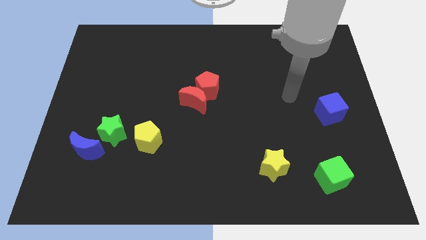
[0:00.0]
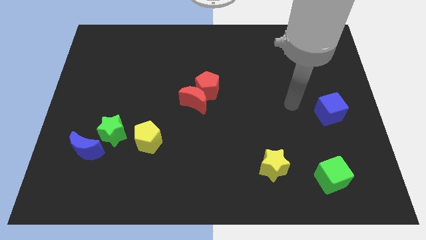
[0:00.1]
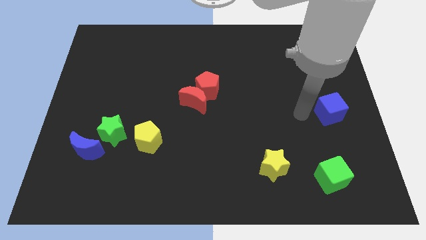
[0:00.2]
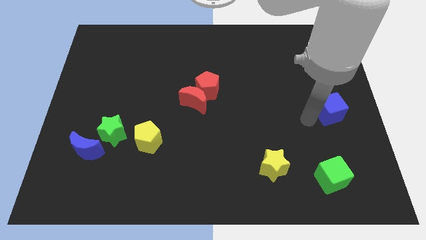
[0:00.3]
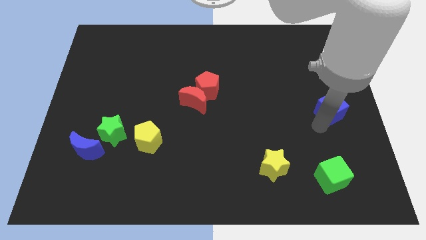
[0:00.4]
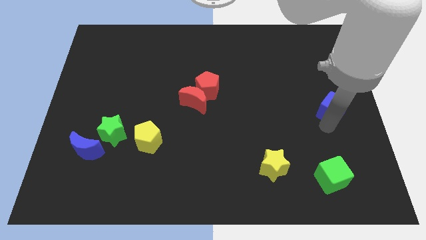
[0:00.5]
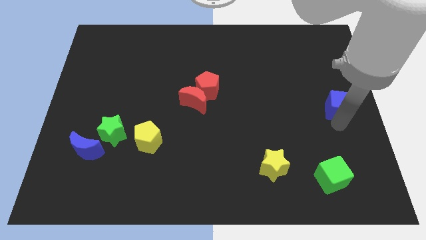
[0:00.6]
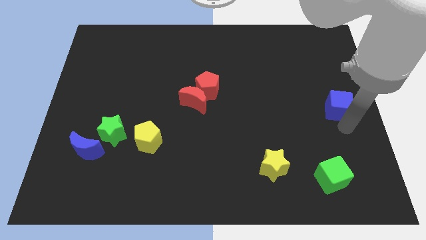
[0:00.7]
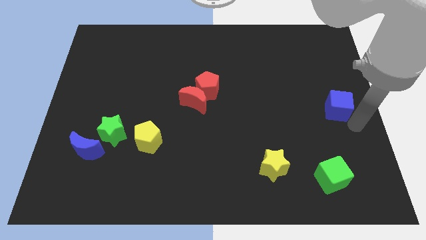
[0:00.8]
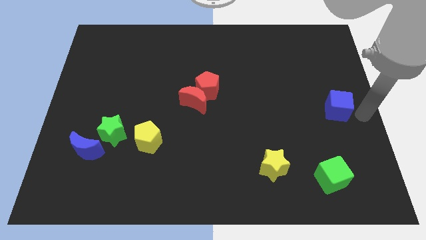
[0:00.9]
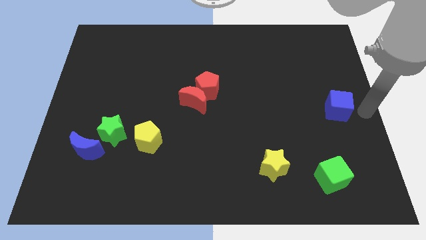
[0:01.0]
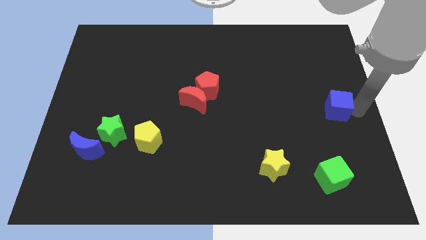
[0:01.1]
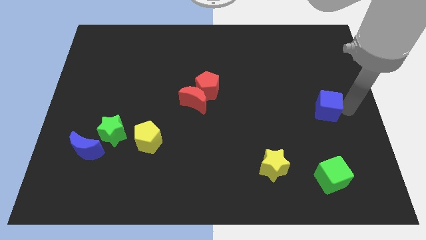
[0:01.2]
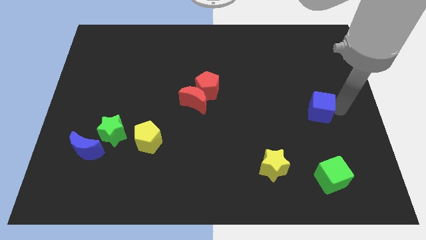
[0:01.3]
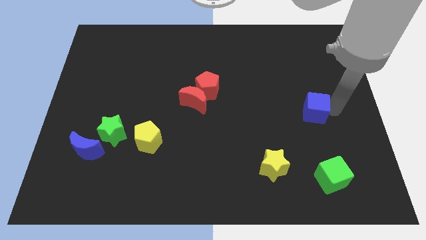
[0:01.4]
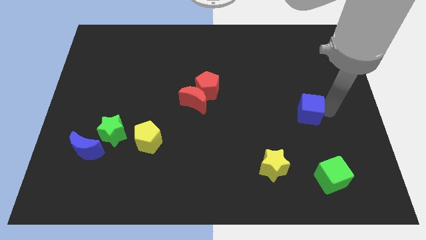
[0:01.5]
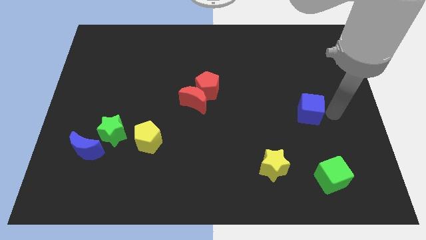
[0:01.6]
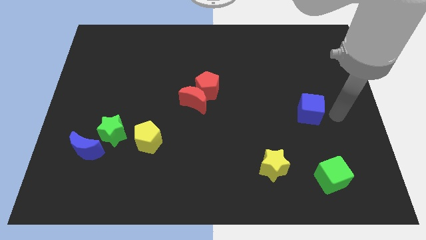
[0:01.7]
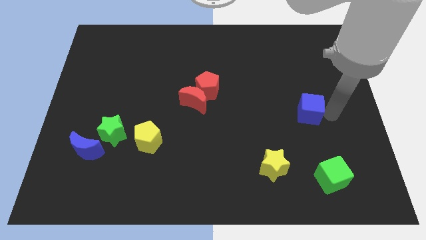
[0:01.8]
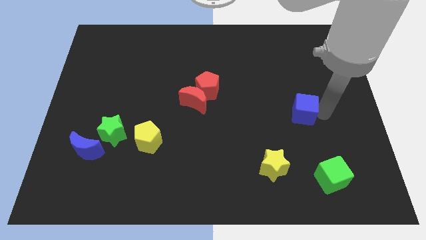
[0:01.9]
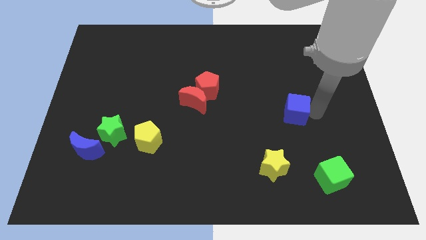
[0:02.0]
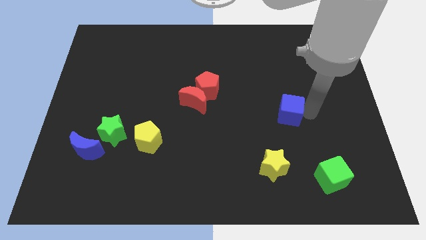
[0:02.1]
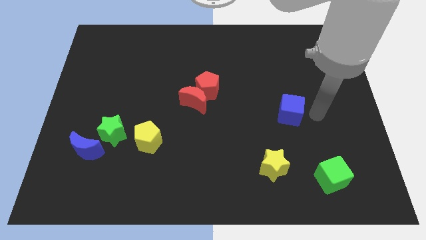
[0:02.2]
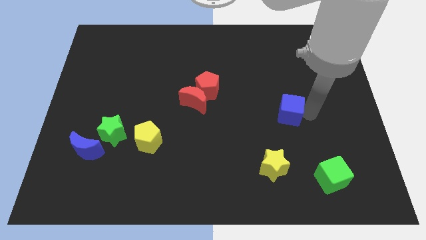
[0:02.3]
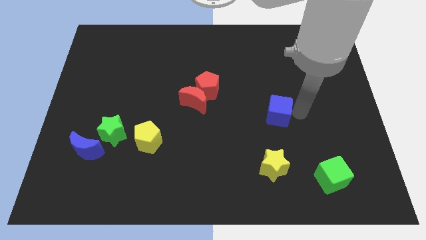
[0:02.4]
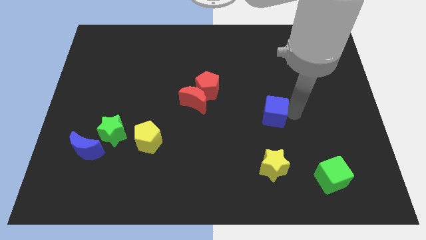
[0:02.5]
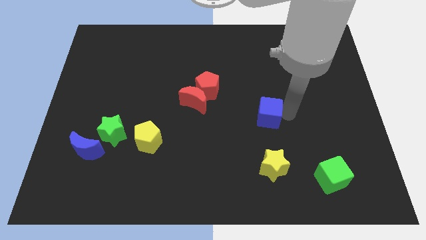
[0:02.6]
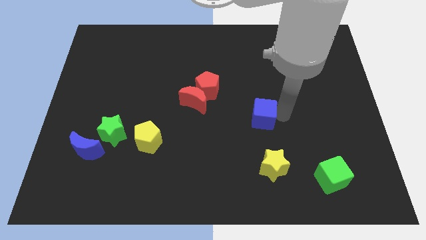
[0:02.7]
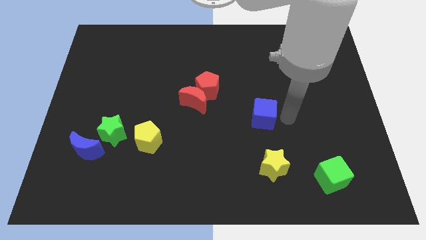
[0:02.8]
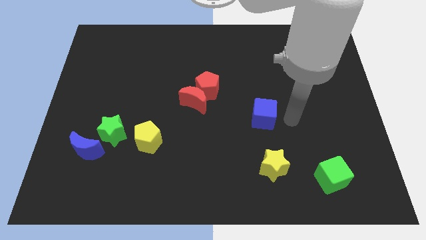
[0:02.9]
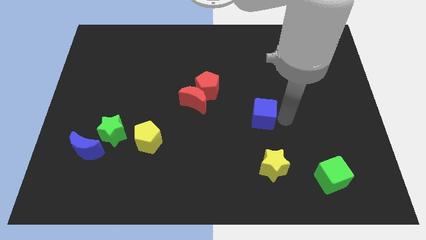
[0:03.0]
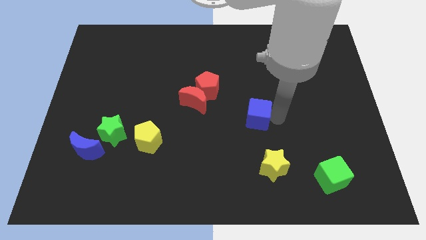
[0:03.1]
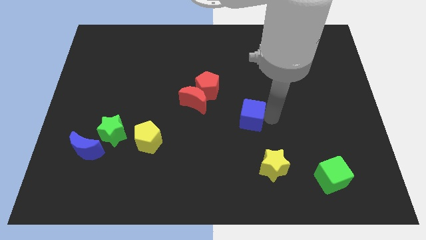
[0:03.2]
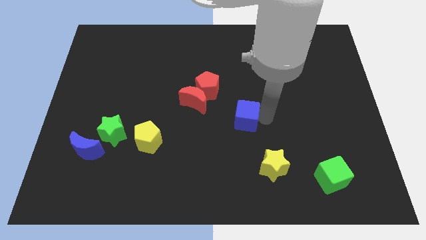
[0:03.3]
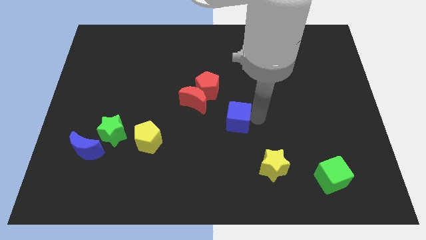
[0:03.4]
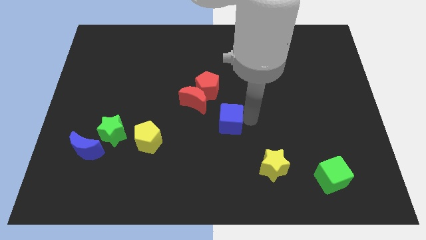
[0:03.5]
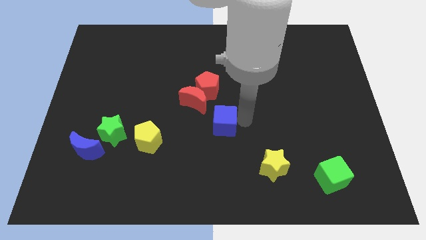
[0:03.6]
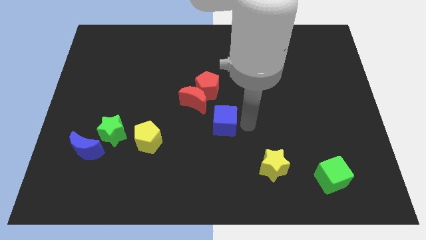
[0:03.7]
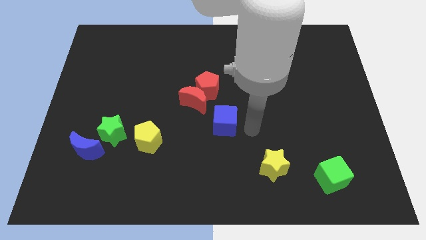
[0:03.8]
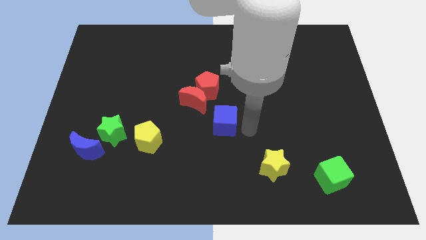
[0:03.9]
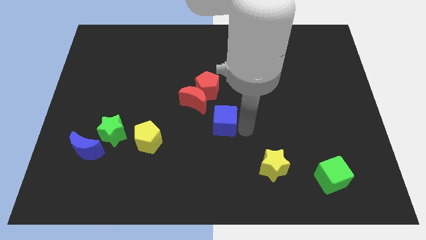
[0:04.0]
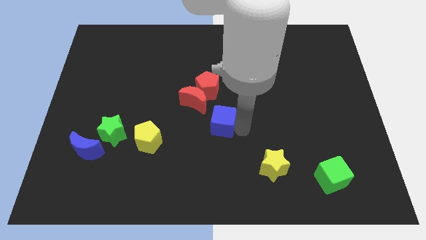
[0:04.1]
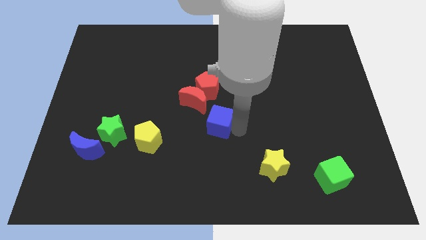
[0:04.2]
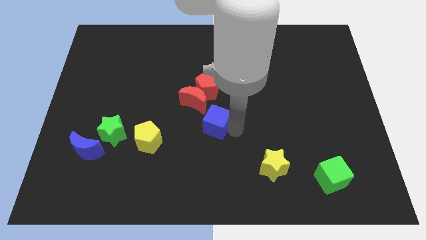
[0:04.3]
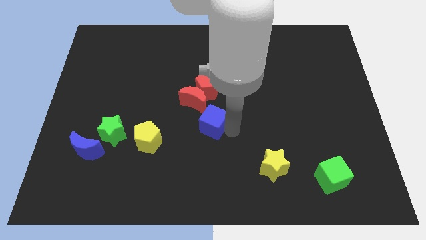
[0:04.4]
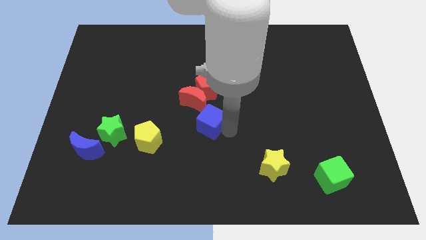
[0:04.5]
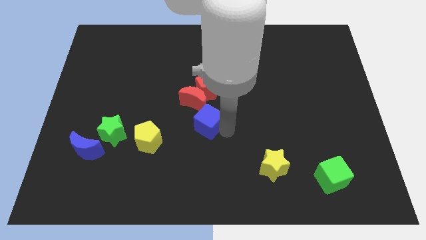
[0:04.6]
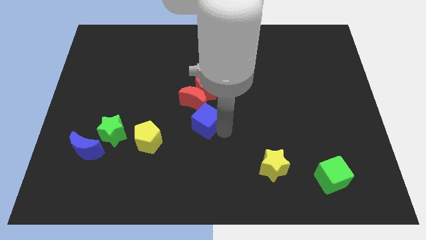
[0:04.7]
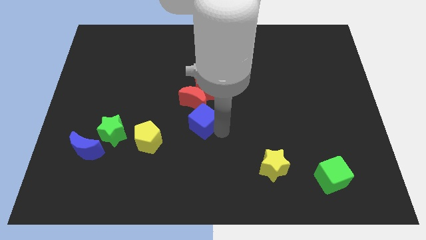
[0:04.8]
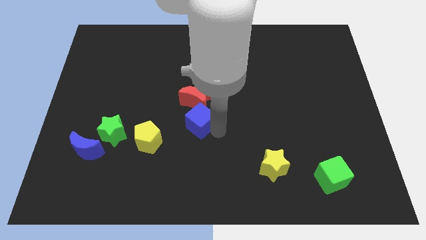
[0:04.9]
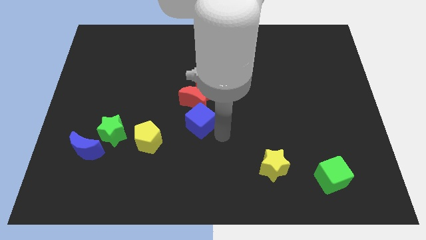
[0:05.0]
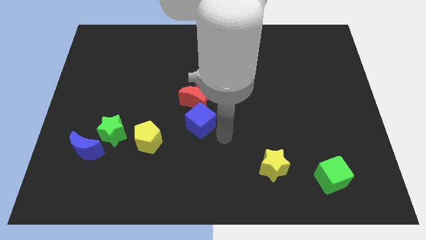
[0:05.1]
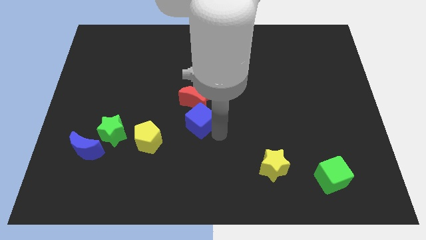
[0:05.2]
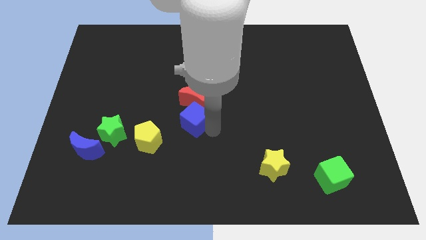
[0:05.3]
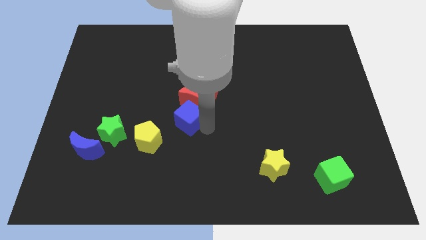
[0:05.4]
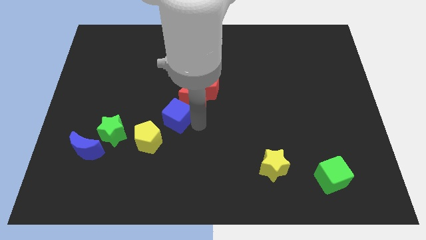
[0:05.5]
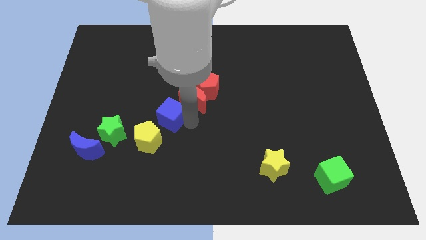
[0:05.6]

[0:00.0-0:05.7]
put the blue cube to the top of the yellow pentagon

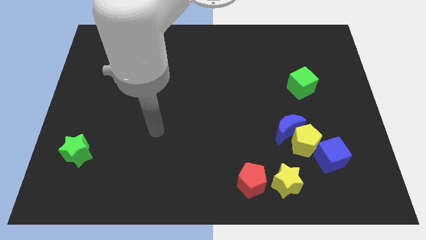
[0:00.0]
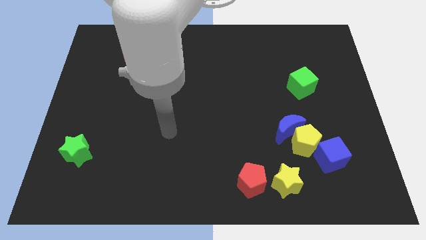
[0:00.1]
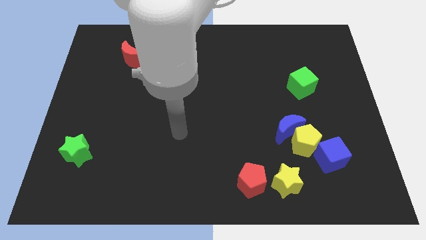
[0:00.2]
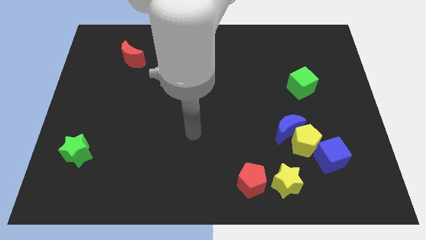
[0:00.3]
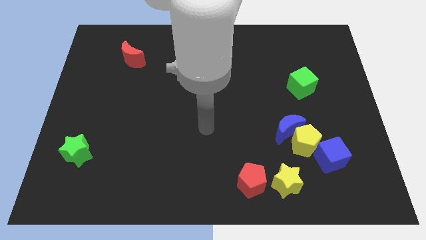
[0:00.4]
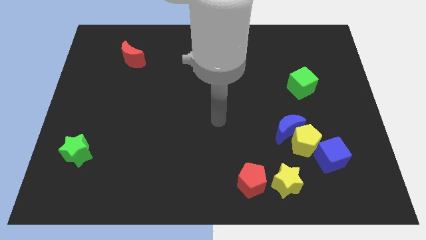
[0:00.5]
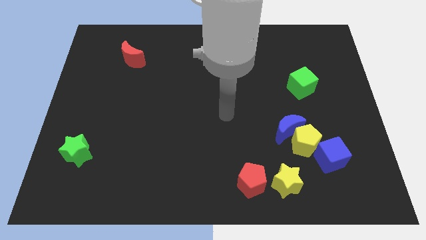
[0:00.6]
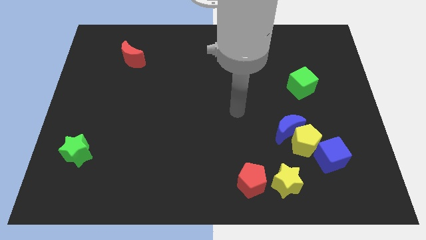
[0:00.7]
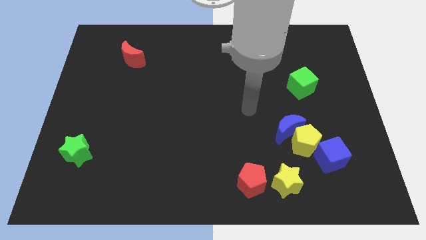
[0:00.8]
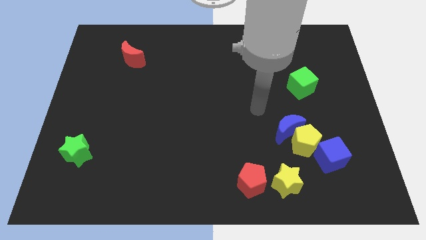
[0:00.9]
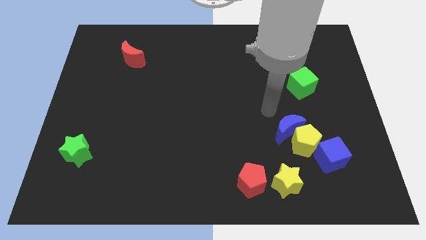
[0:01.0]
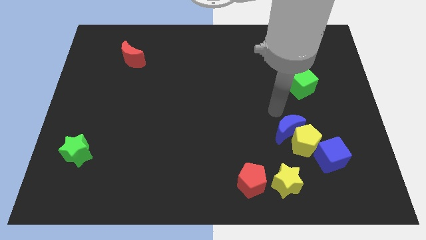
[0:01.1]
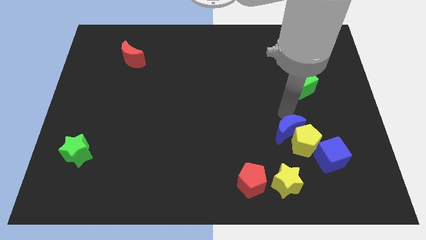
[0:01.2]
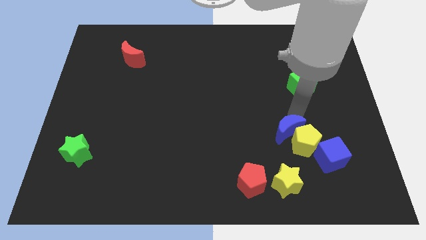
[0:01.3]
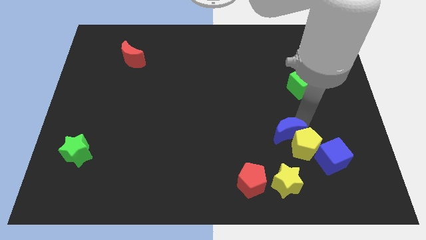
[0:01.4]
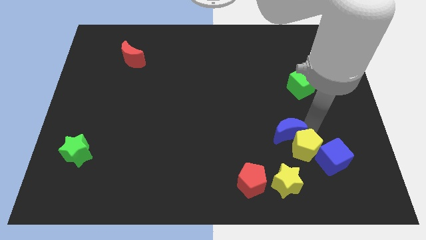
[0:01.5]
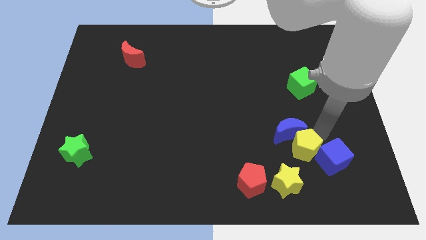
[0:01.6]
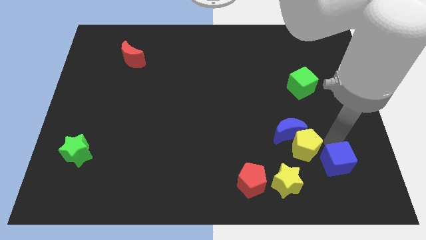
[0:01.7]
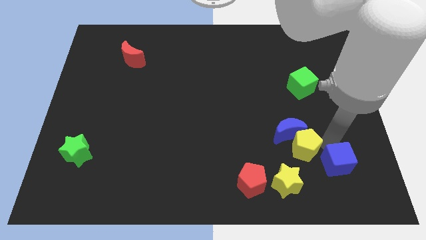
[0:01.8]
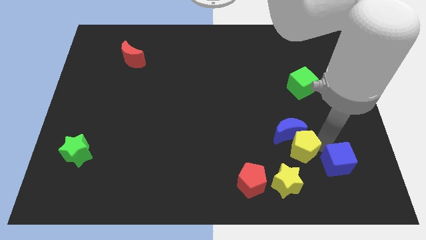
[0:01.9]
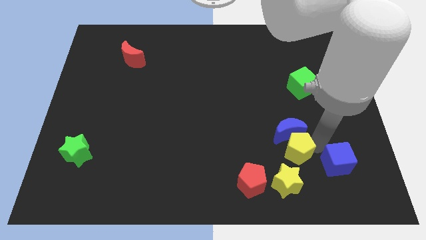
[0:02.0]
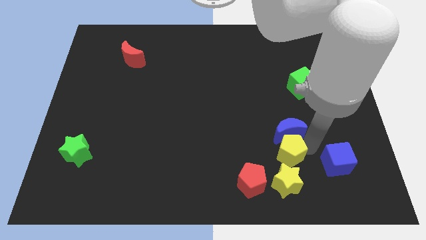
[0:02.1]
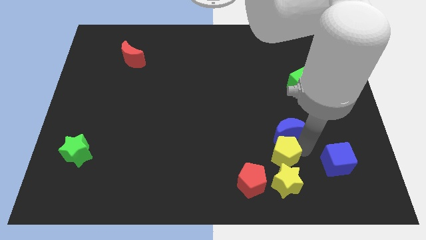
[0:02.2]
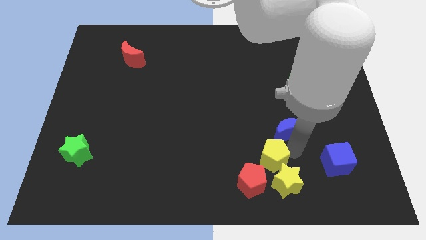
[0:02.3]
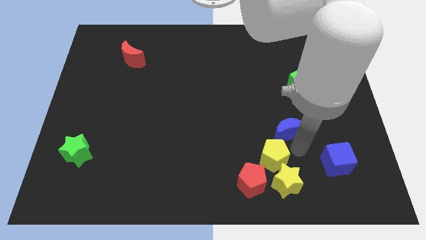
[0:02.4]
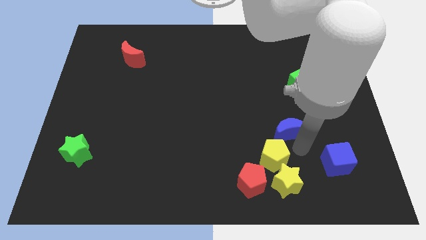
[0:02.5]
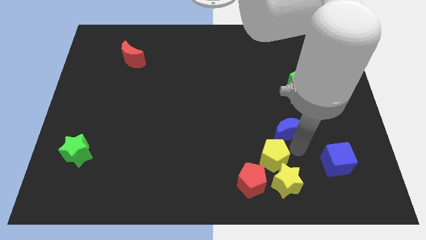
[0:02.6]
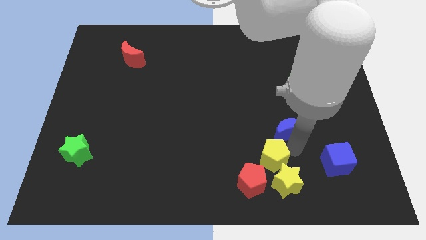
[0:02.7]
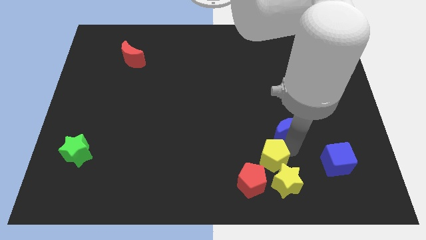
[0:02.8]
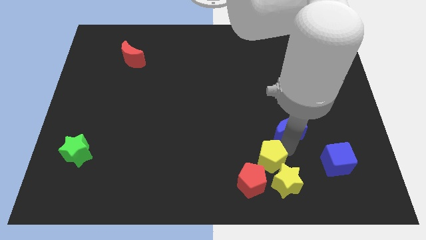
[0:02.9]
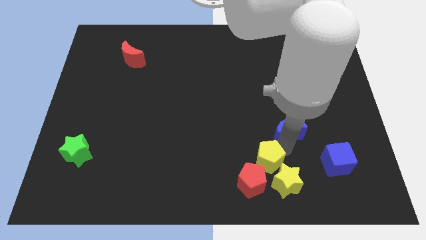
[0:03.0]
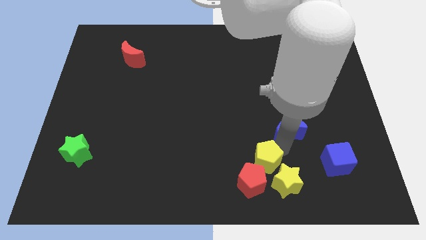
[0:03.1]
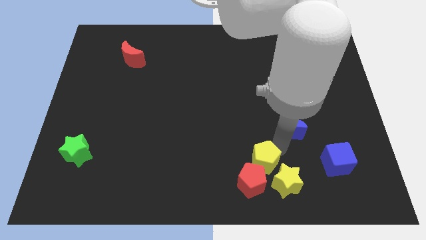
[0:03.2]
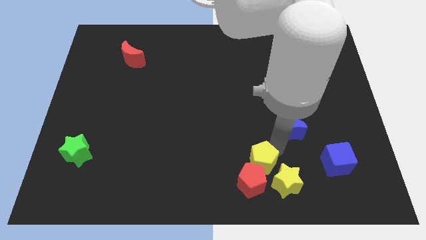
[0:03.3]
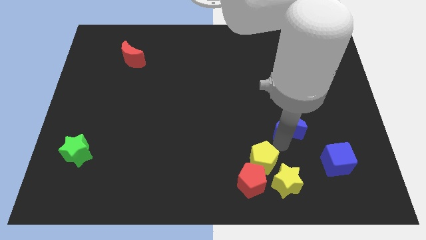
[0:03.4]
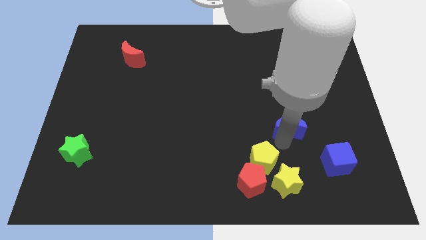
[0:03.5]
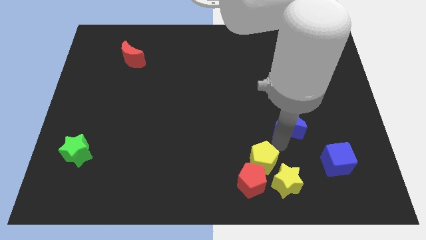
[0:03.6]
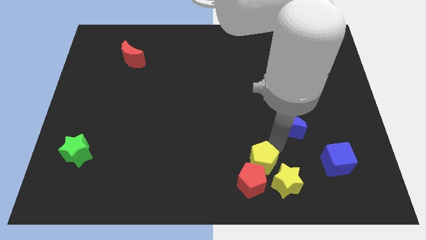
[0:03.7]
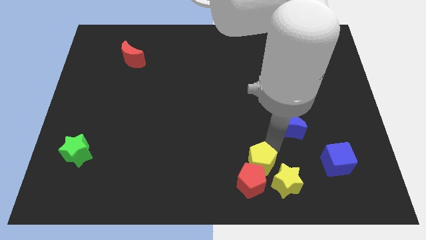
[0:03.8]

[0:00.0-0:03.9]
move the yellow pentagon to the left side of the yellow star
